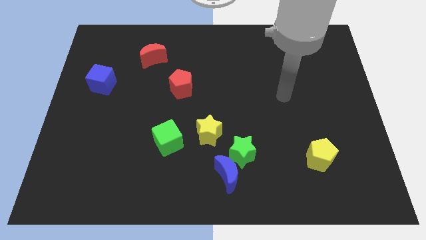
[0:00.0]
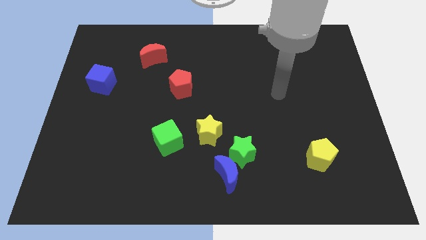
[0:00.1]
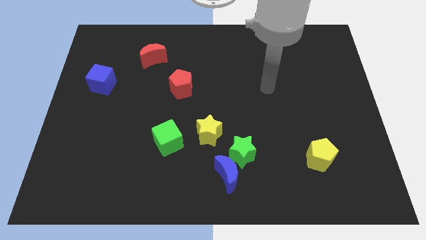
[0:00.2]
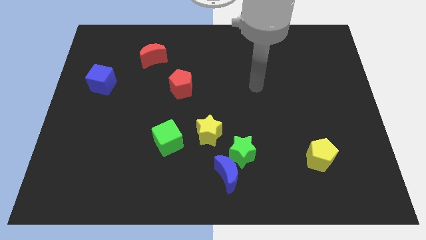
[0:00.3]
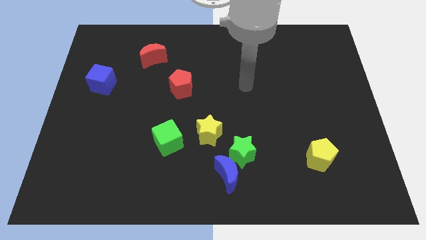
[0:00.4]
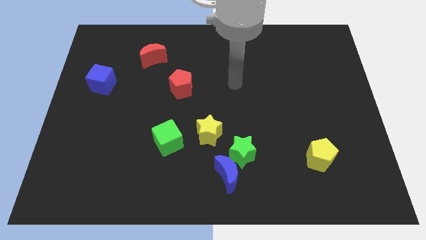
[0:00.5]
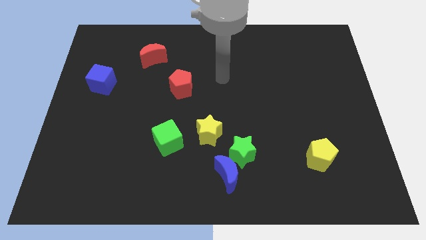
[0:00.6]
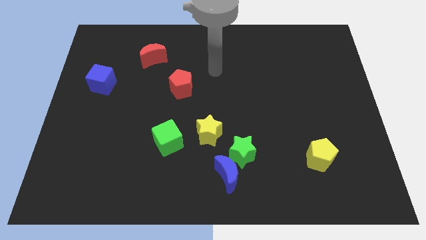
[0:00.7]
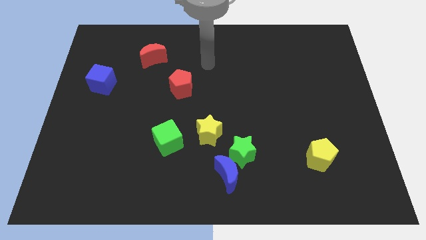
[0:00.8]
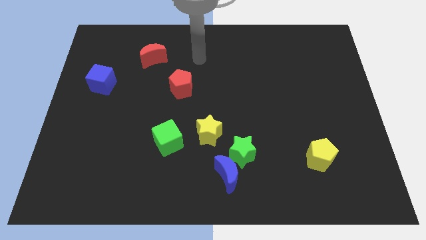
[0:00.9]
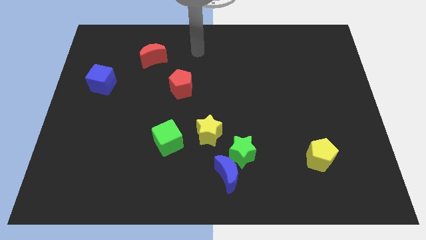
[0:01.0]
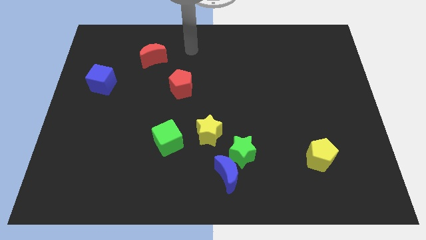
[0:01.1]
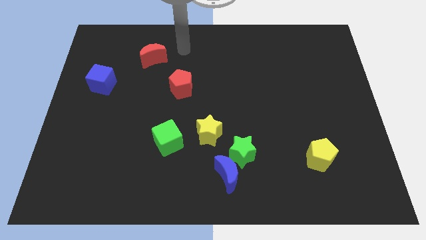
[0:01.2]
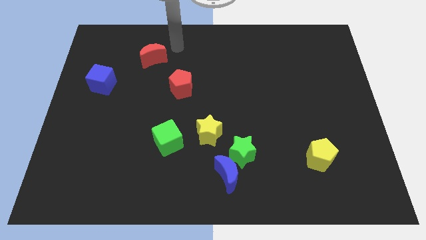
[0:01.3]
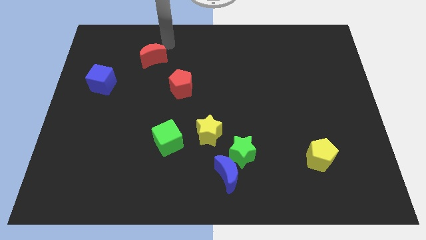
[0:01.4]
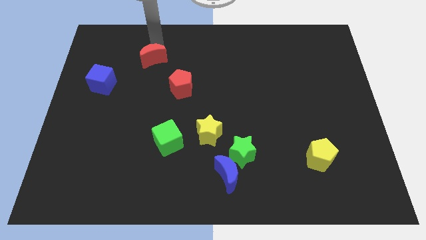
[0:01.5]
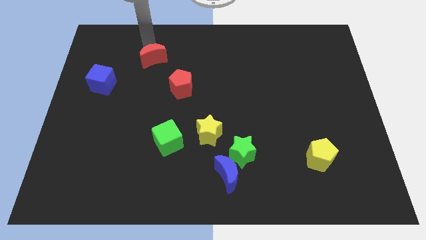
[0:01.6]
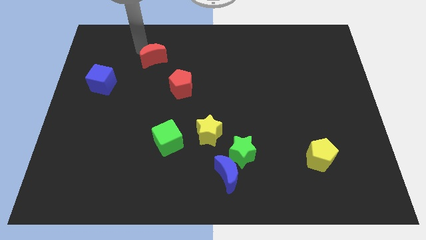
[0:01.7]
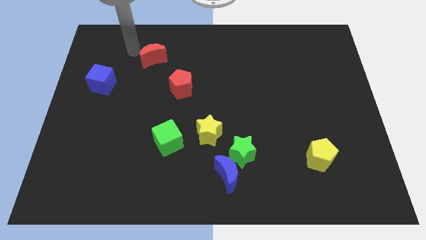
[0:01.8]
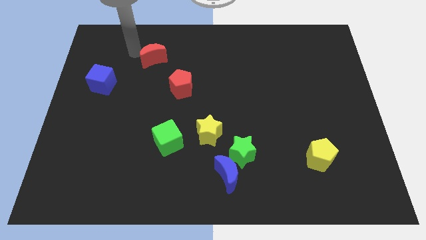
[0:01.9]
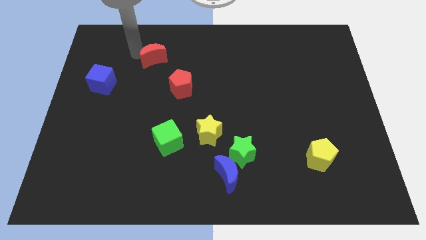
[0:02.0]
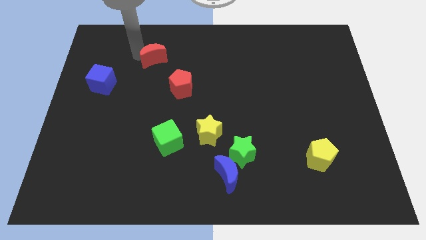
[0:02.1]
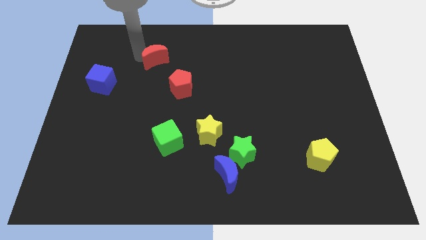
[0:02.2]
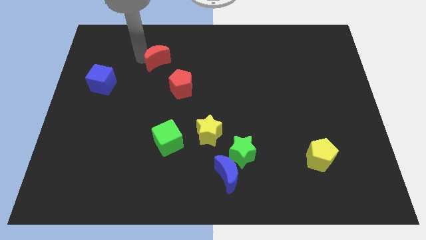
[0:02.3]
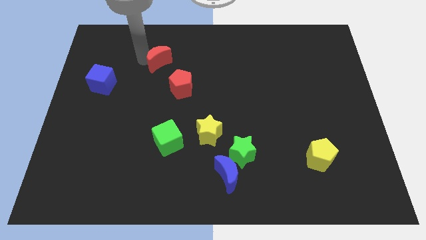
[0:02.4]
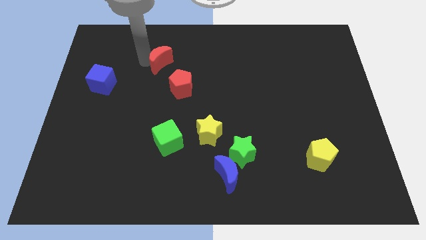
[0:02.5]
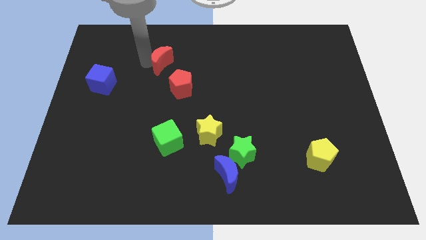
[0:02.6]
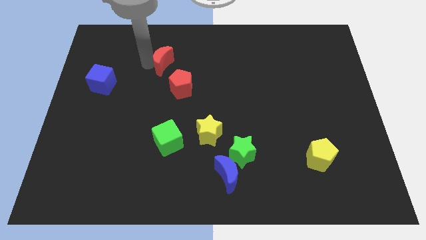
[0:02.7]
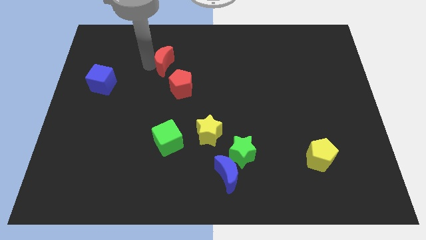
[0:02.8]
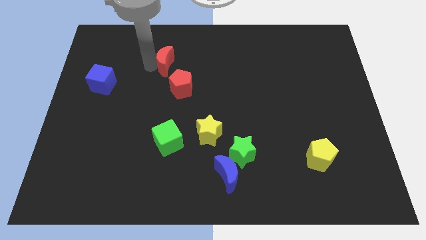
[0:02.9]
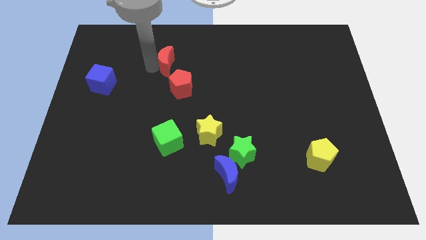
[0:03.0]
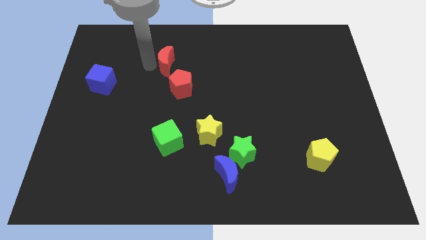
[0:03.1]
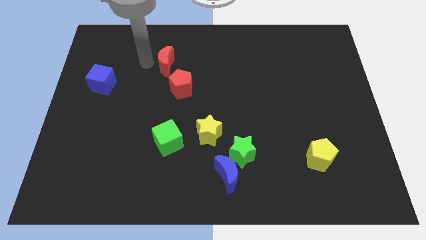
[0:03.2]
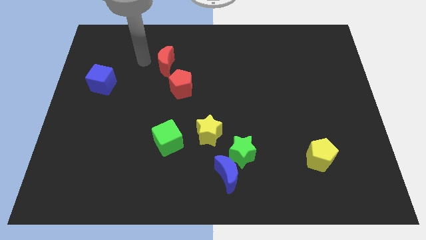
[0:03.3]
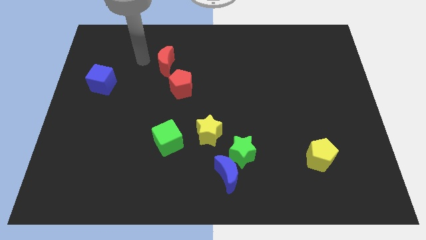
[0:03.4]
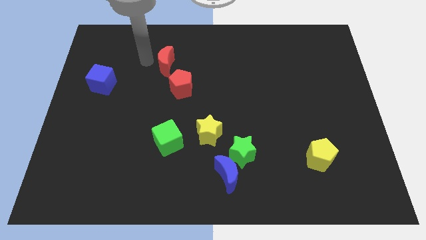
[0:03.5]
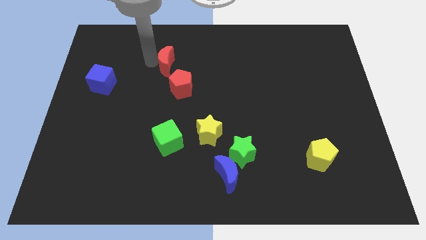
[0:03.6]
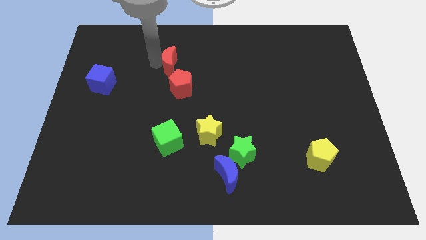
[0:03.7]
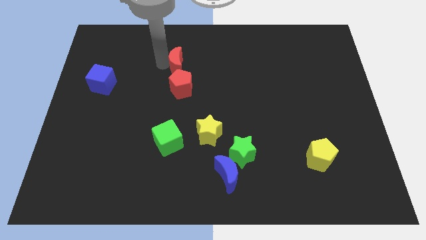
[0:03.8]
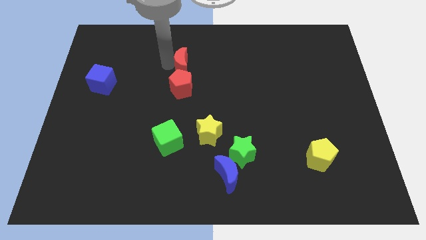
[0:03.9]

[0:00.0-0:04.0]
move the red moon down and to the right a little

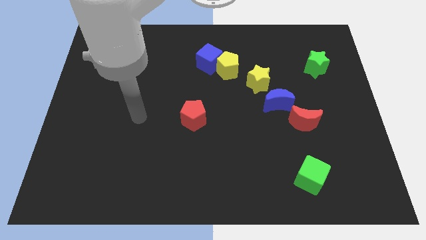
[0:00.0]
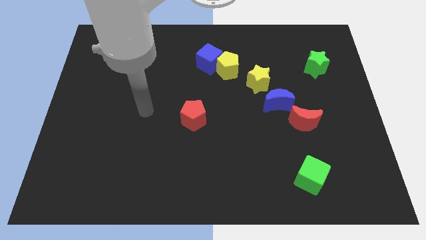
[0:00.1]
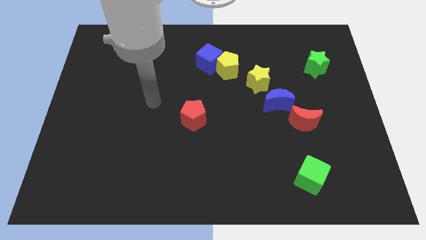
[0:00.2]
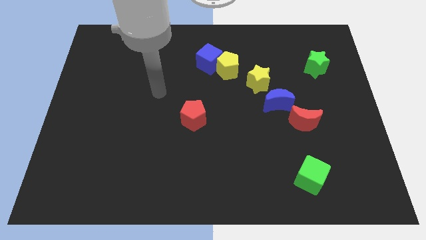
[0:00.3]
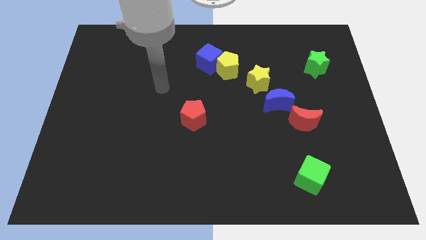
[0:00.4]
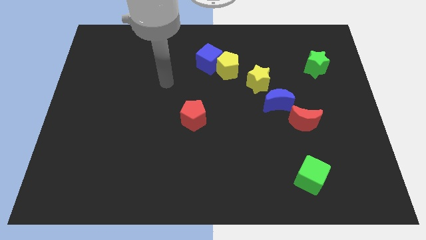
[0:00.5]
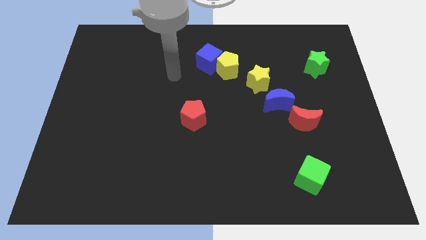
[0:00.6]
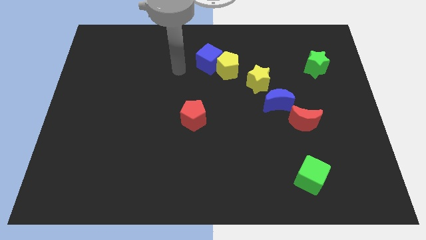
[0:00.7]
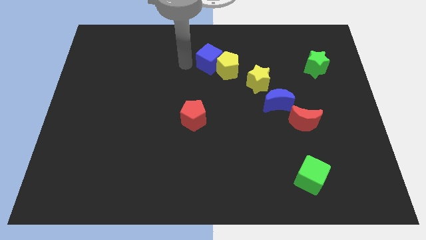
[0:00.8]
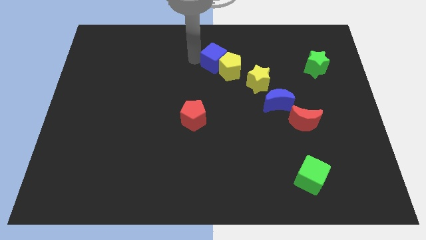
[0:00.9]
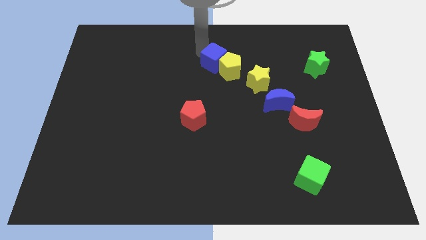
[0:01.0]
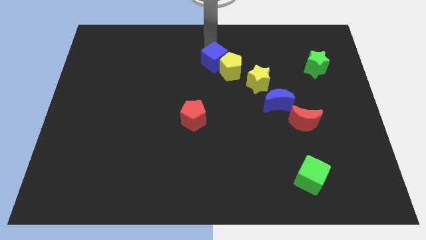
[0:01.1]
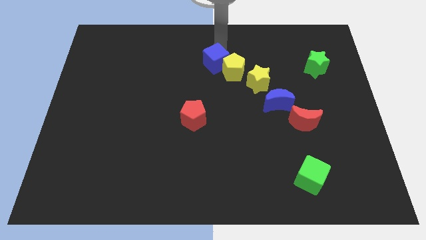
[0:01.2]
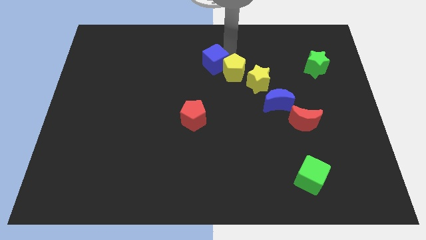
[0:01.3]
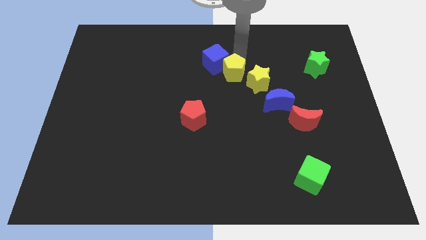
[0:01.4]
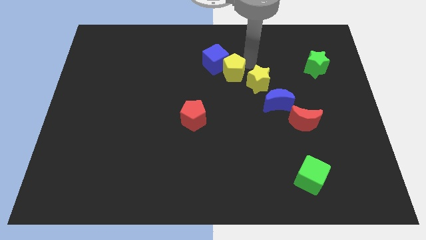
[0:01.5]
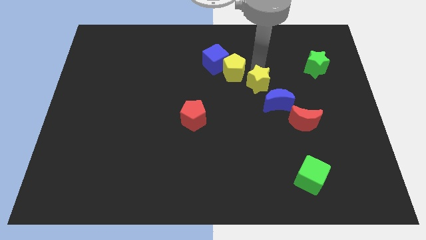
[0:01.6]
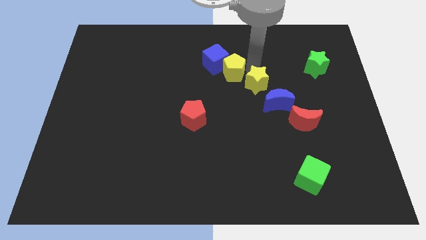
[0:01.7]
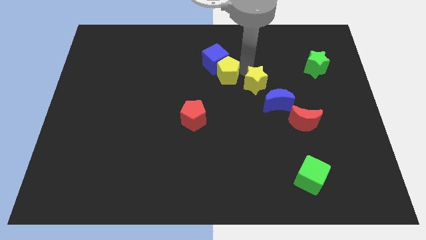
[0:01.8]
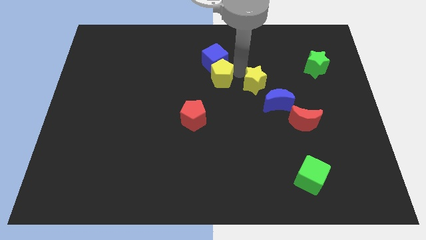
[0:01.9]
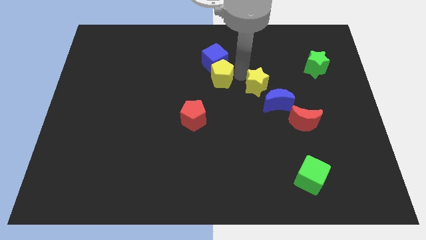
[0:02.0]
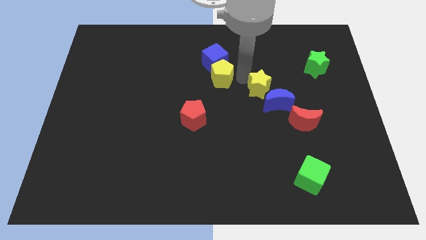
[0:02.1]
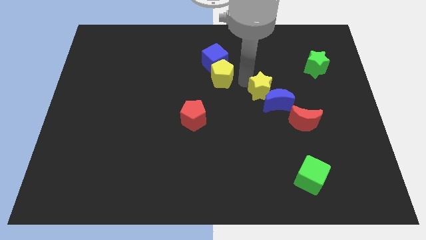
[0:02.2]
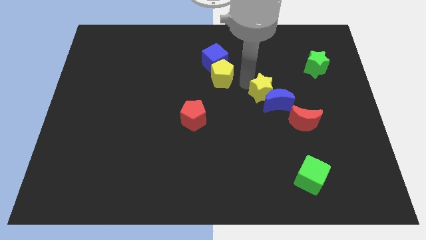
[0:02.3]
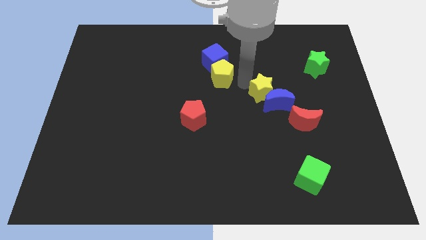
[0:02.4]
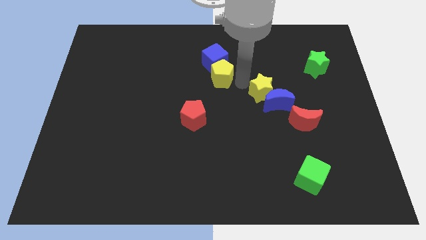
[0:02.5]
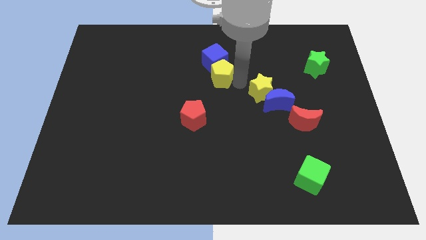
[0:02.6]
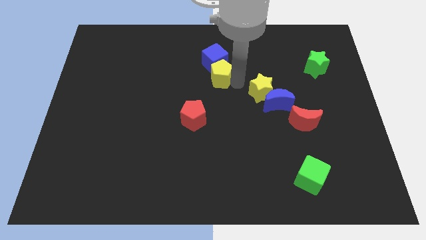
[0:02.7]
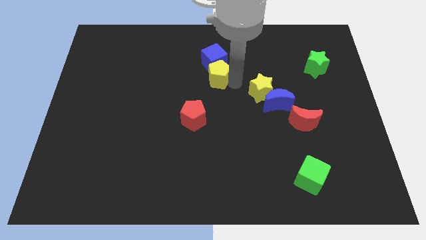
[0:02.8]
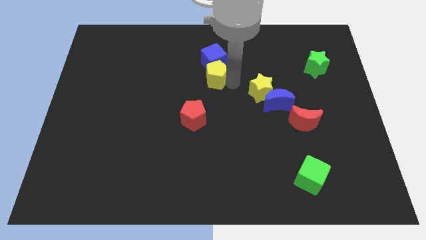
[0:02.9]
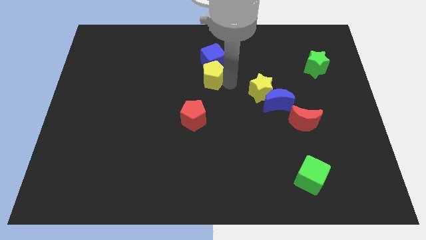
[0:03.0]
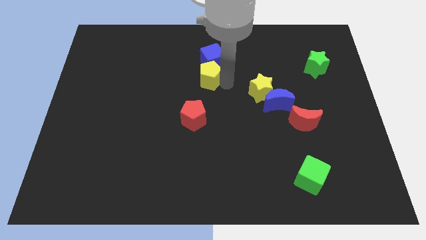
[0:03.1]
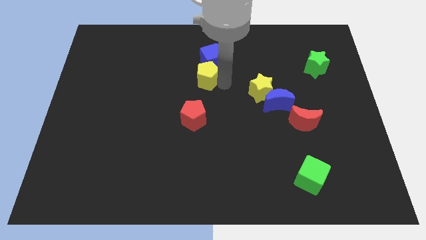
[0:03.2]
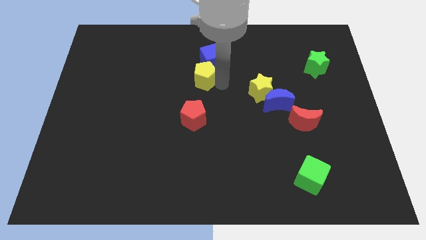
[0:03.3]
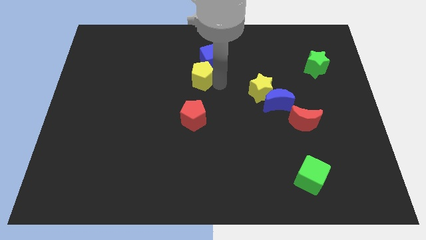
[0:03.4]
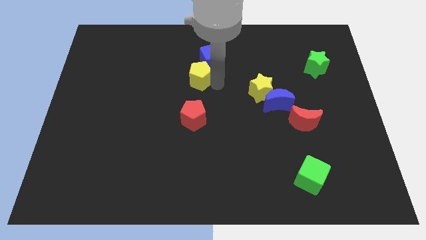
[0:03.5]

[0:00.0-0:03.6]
push the yellow pentagon slightly left

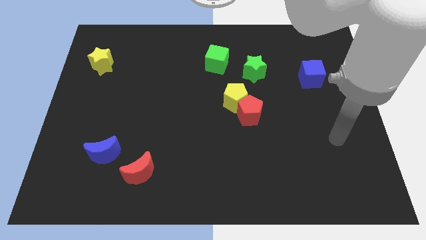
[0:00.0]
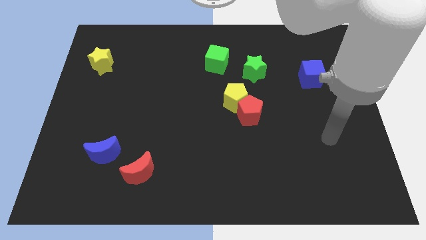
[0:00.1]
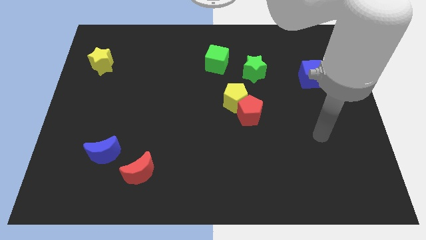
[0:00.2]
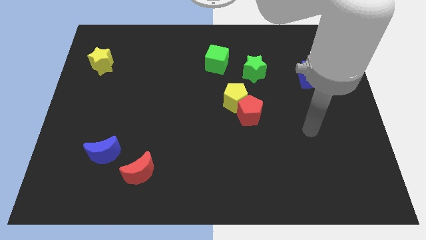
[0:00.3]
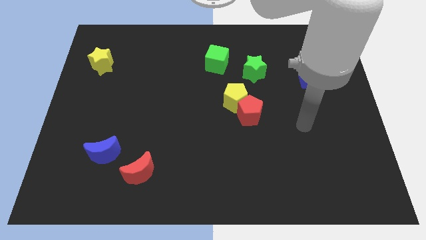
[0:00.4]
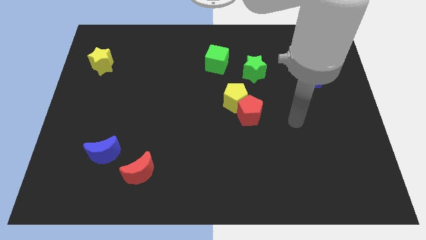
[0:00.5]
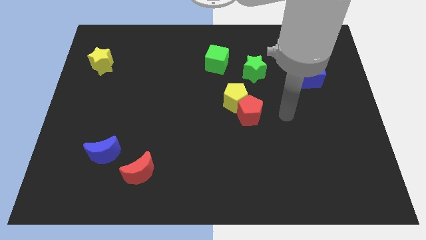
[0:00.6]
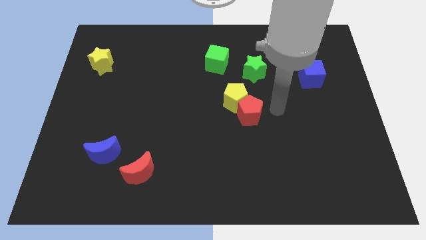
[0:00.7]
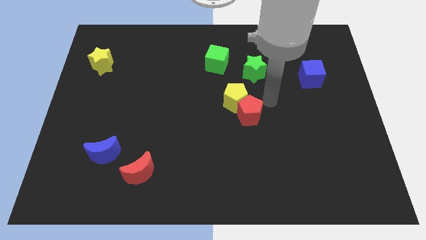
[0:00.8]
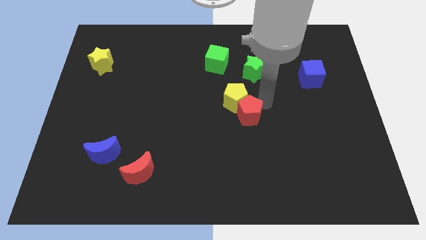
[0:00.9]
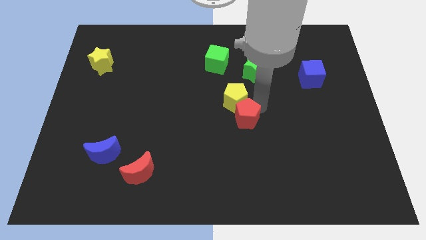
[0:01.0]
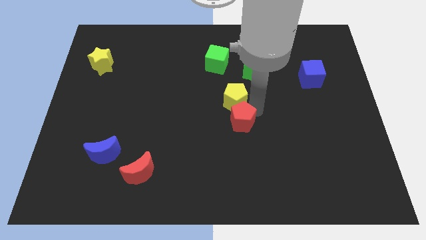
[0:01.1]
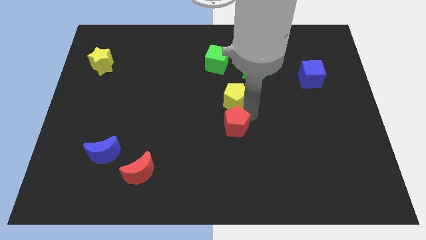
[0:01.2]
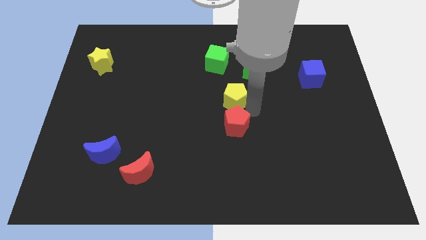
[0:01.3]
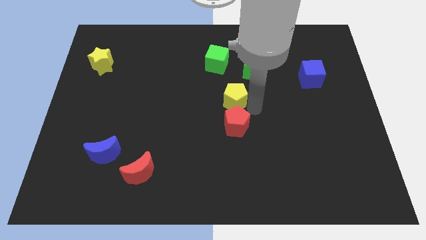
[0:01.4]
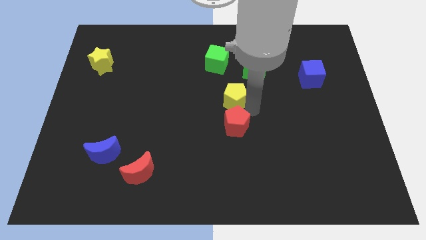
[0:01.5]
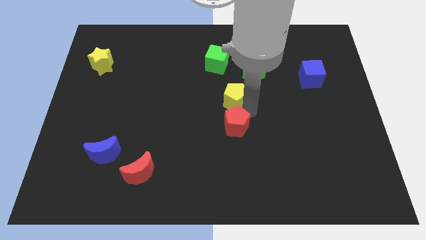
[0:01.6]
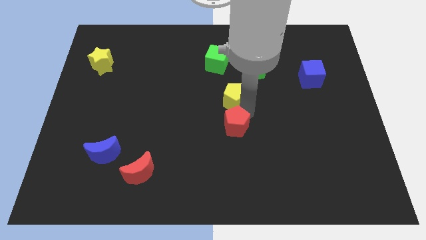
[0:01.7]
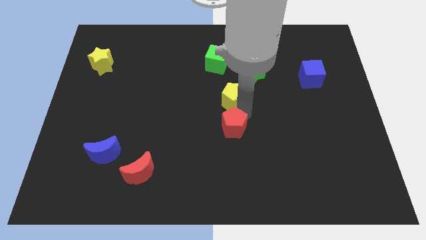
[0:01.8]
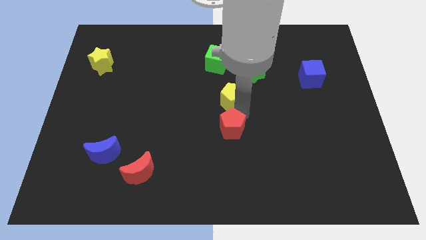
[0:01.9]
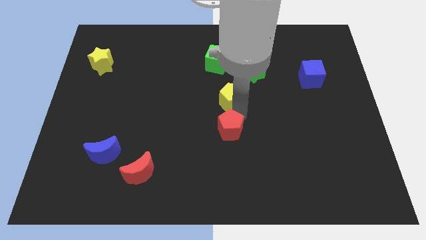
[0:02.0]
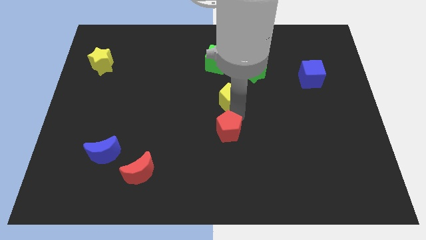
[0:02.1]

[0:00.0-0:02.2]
slide the red pentagon downwards and then to the left a little
